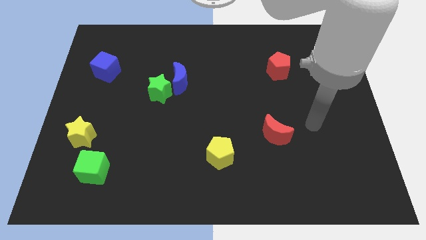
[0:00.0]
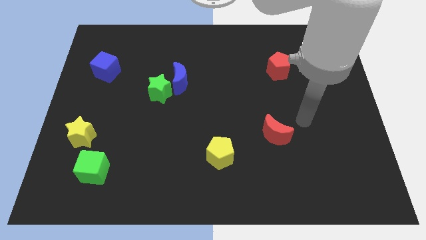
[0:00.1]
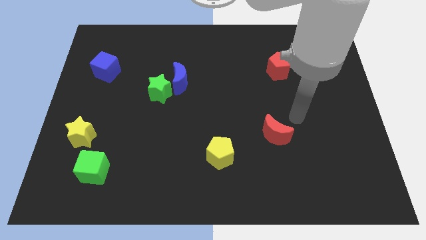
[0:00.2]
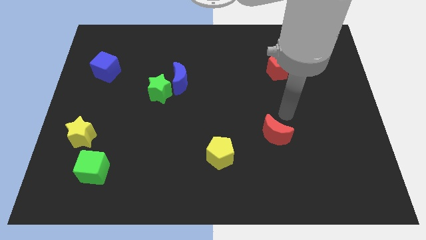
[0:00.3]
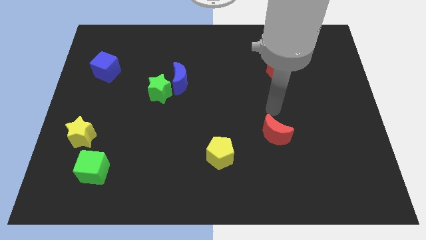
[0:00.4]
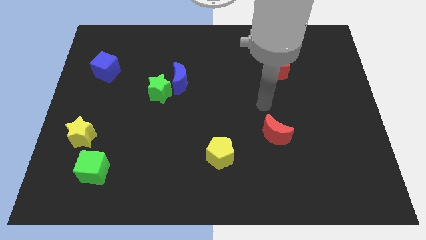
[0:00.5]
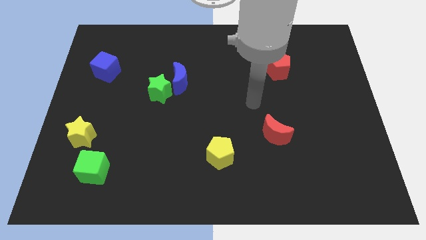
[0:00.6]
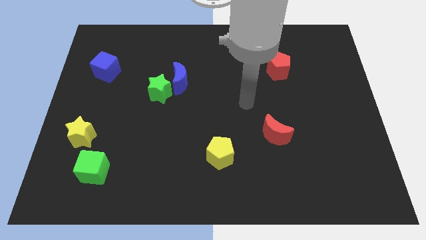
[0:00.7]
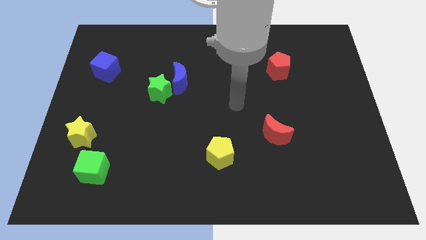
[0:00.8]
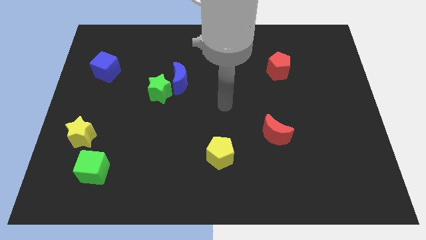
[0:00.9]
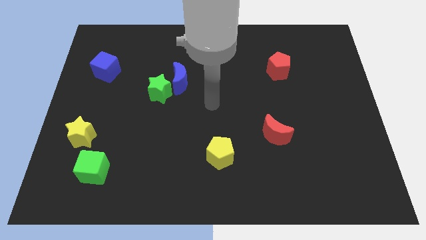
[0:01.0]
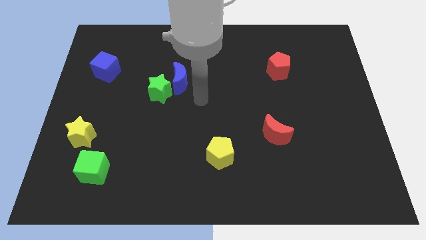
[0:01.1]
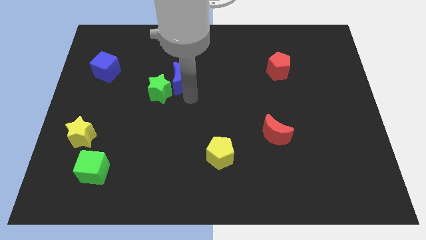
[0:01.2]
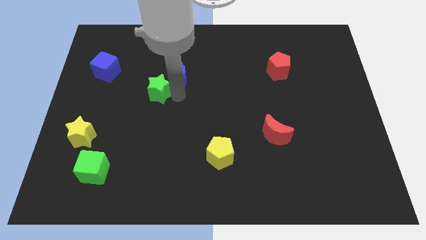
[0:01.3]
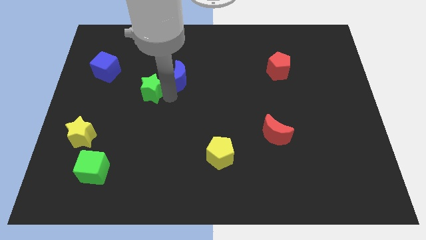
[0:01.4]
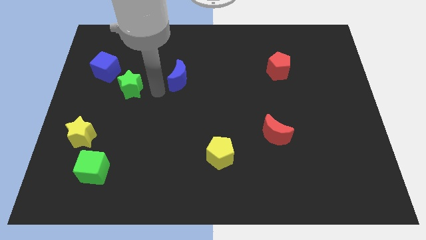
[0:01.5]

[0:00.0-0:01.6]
move the blue moon away from the green star

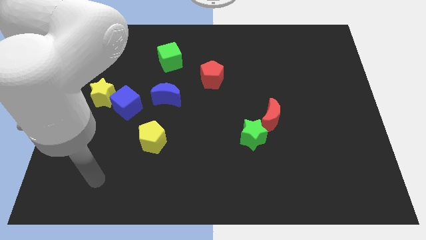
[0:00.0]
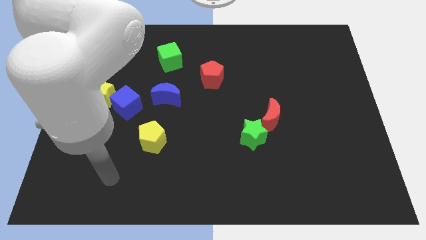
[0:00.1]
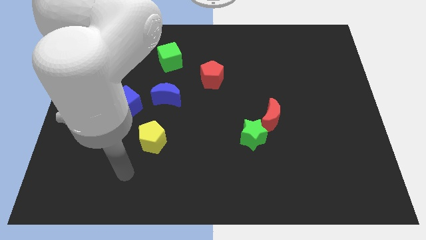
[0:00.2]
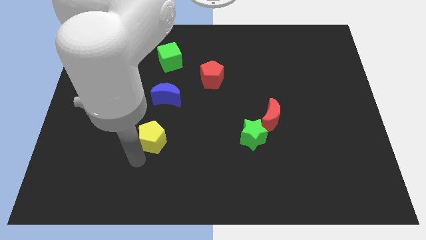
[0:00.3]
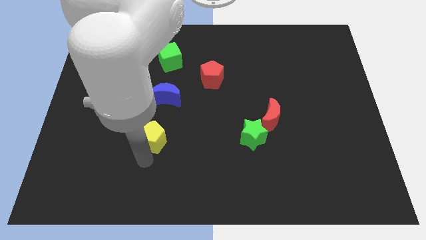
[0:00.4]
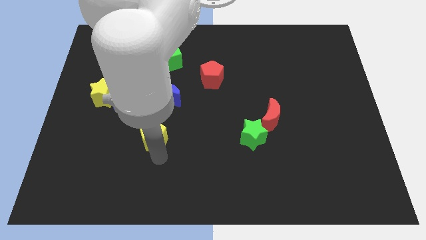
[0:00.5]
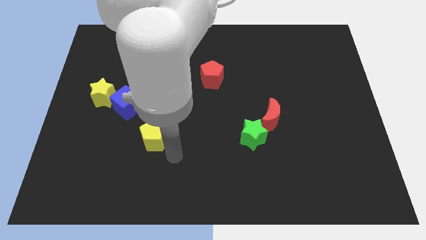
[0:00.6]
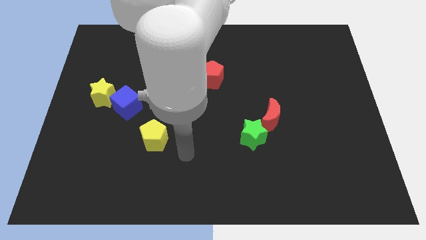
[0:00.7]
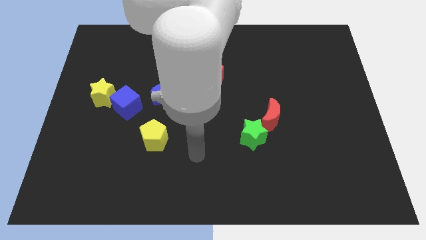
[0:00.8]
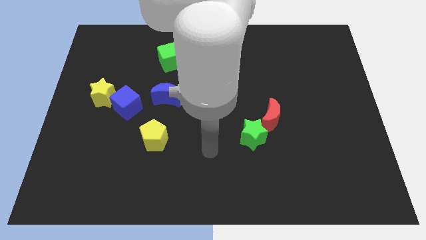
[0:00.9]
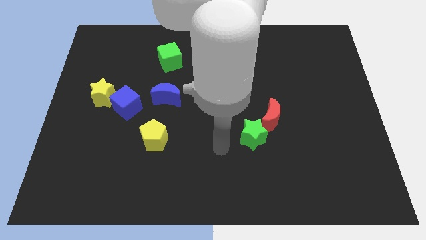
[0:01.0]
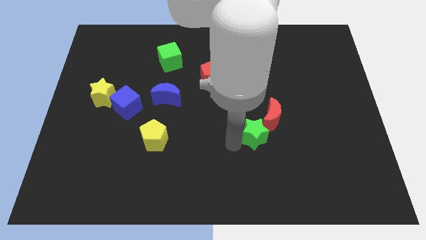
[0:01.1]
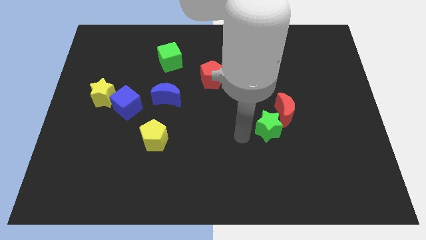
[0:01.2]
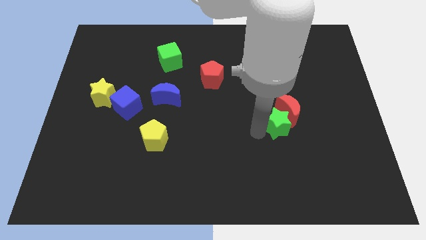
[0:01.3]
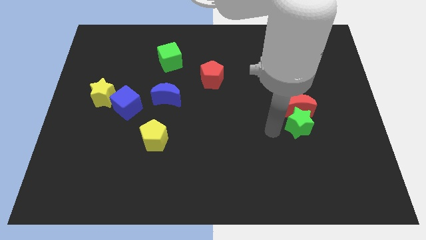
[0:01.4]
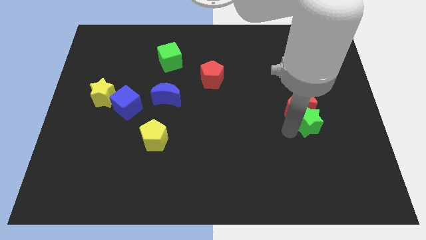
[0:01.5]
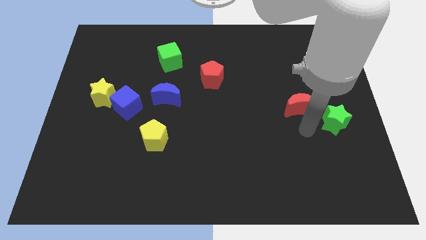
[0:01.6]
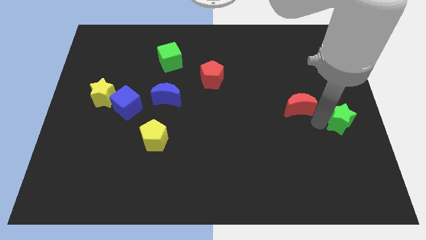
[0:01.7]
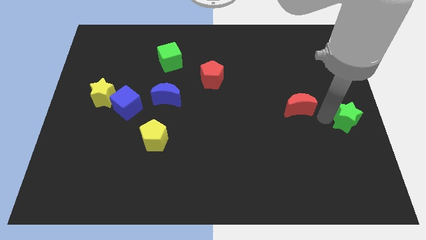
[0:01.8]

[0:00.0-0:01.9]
separate the red moon from the green star

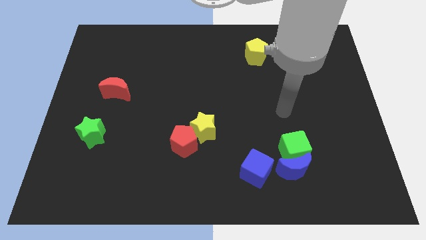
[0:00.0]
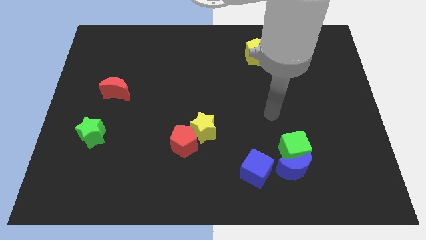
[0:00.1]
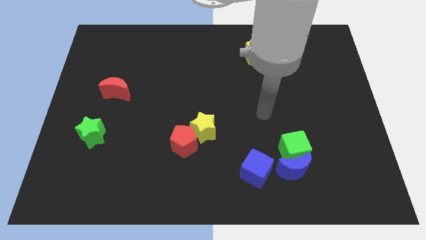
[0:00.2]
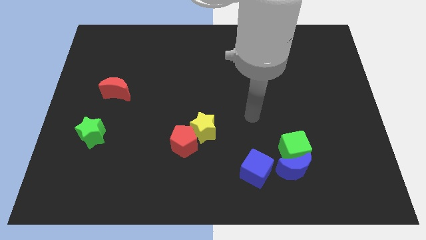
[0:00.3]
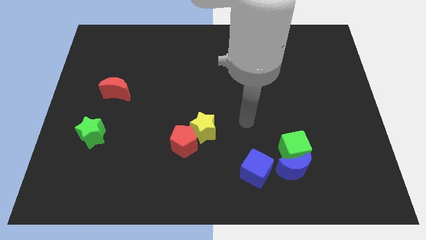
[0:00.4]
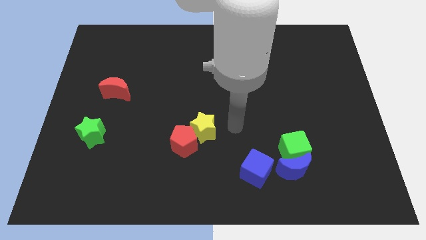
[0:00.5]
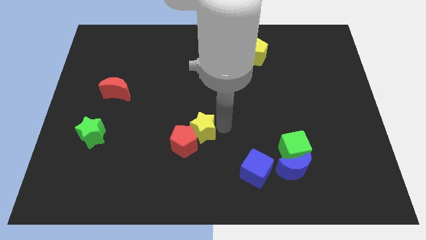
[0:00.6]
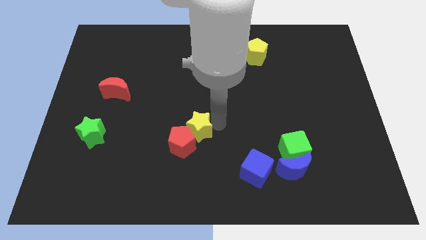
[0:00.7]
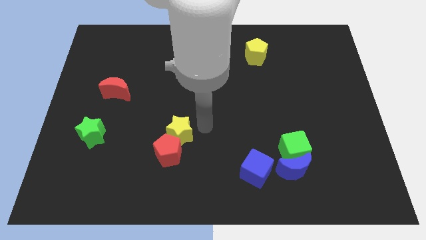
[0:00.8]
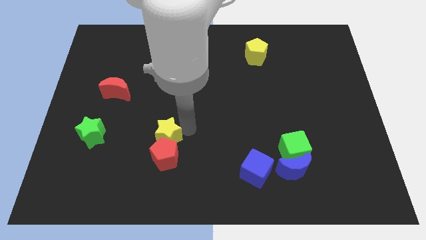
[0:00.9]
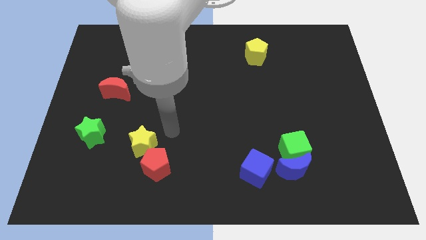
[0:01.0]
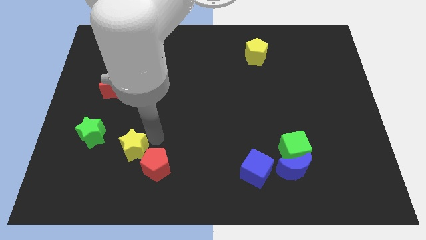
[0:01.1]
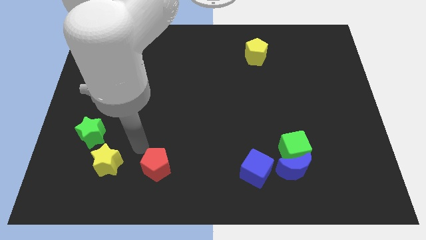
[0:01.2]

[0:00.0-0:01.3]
pull the red pentagon apart from the yellow star

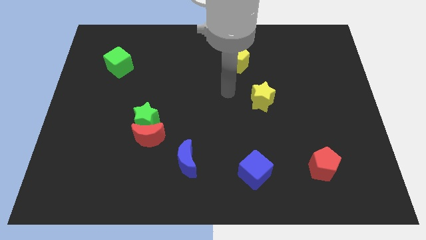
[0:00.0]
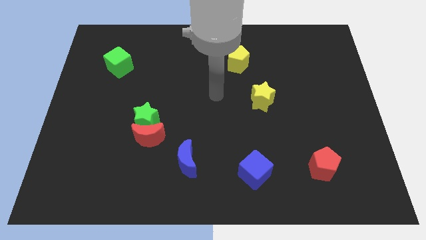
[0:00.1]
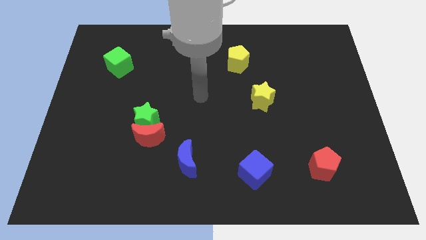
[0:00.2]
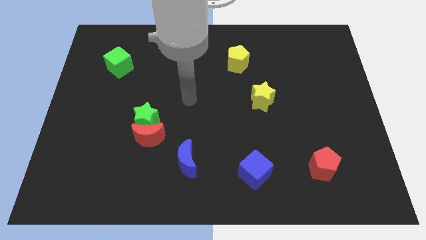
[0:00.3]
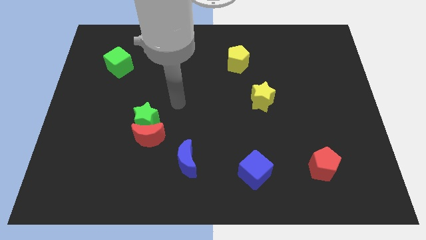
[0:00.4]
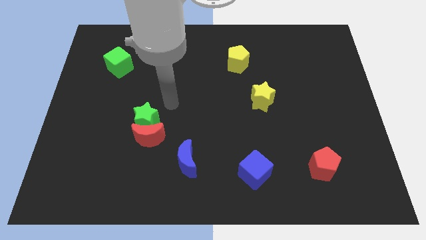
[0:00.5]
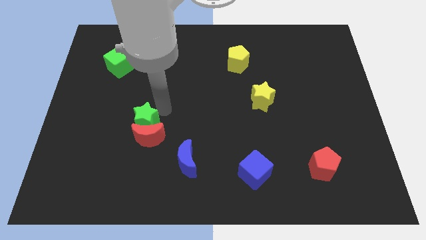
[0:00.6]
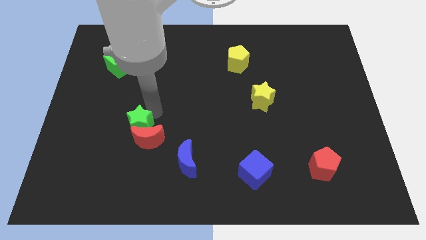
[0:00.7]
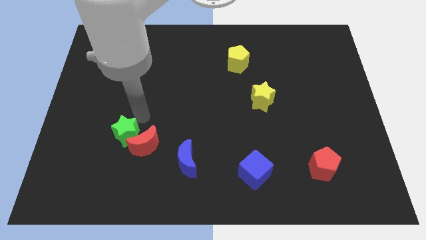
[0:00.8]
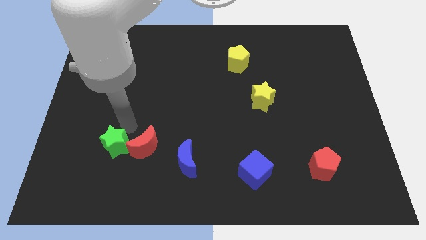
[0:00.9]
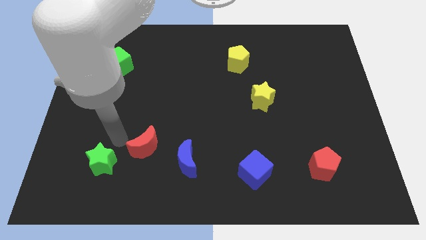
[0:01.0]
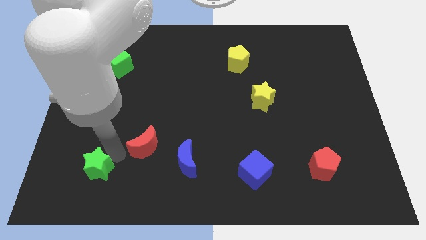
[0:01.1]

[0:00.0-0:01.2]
pull the red moon apart from the green star

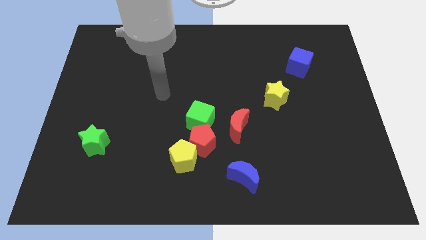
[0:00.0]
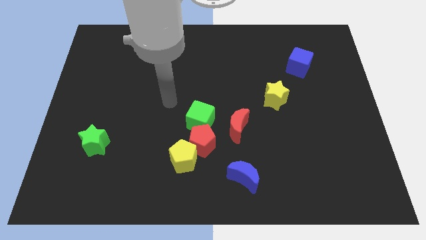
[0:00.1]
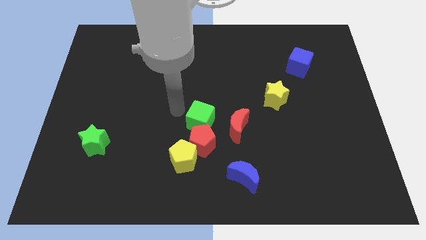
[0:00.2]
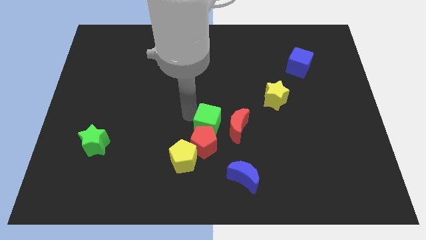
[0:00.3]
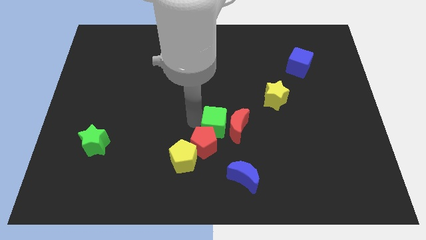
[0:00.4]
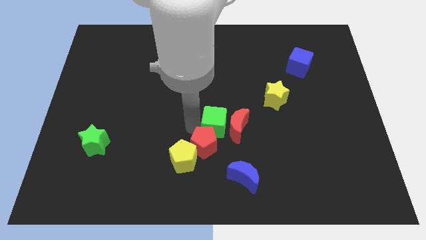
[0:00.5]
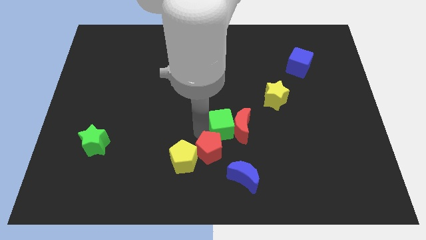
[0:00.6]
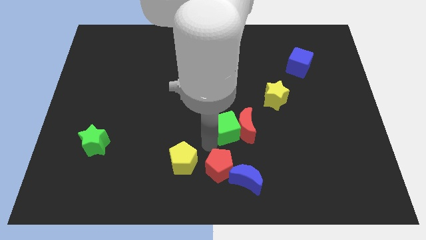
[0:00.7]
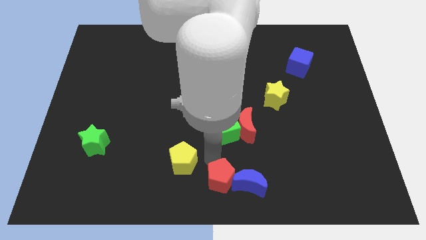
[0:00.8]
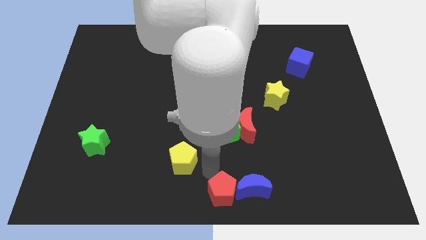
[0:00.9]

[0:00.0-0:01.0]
pull the yellow pentagon apart from the red pentagon

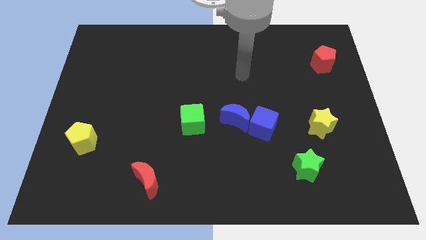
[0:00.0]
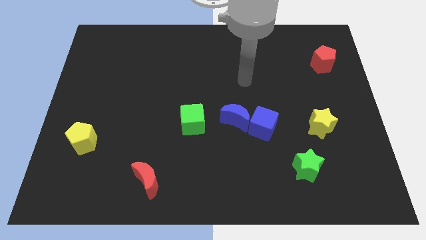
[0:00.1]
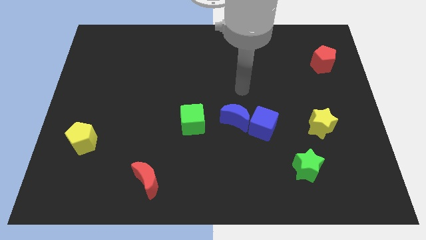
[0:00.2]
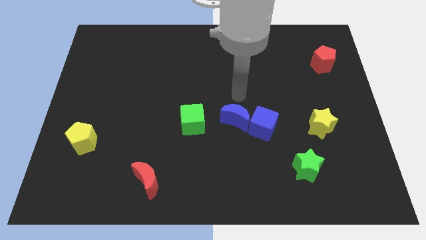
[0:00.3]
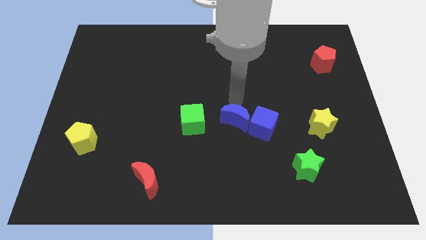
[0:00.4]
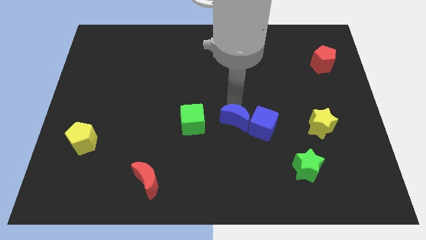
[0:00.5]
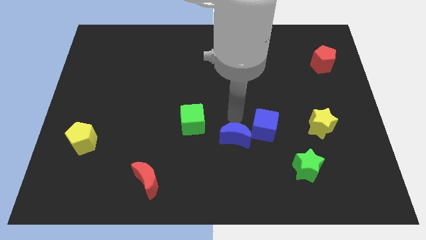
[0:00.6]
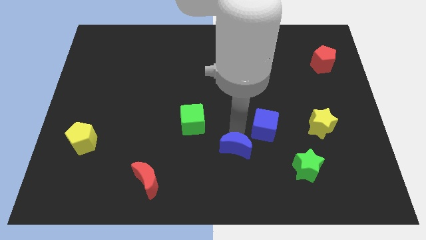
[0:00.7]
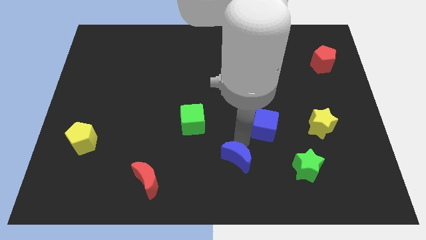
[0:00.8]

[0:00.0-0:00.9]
separate the blue cube from the blue moon

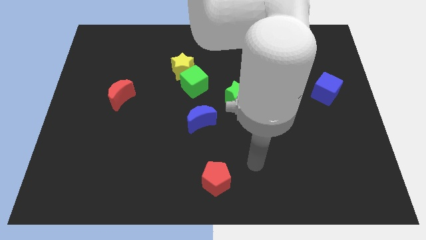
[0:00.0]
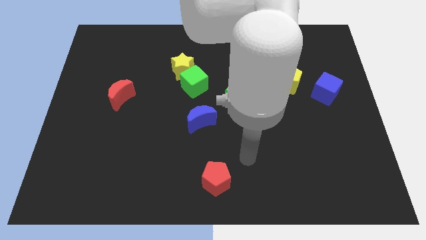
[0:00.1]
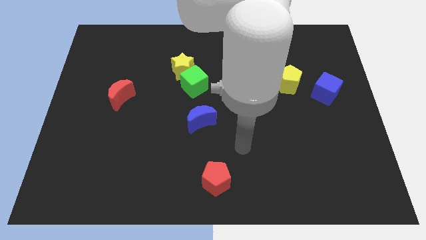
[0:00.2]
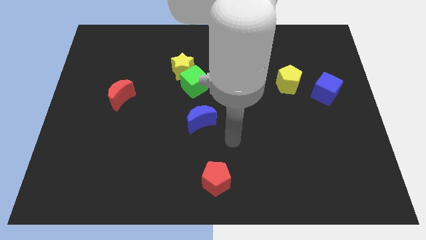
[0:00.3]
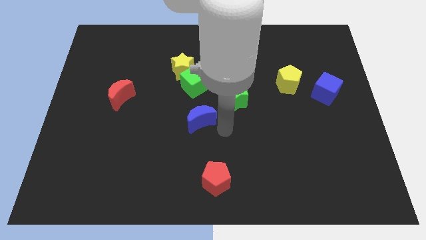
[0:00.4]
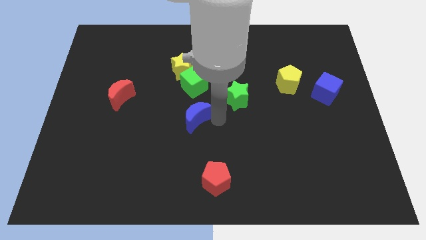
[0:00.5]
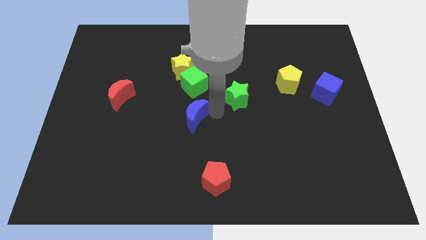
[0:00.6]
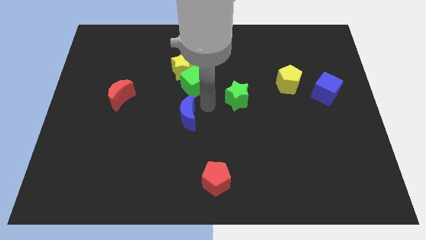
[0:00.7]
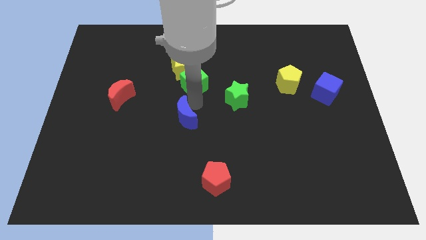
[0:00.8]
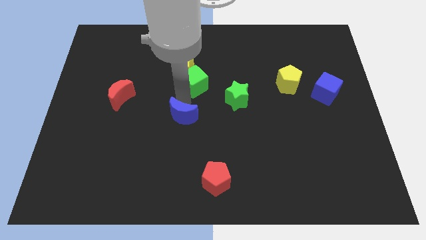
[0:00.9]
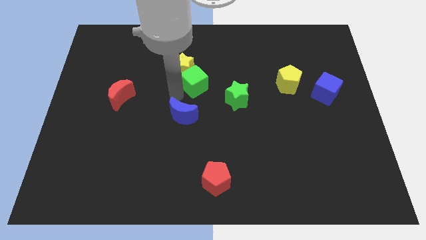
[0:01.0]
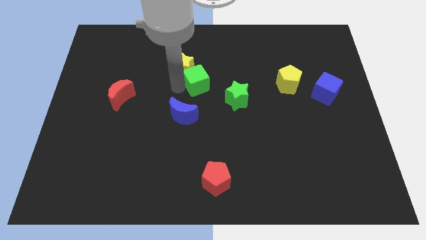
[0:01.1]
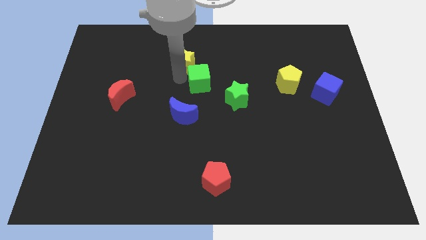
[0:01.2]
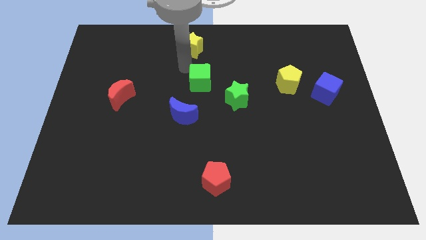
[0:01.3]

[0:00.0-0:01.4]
move the green cube away from the yellow star
